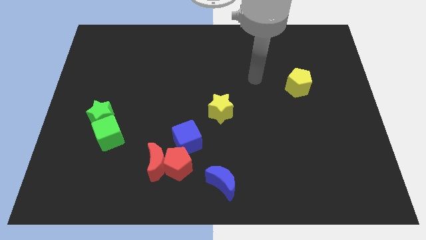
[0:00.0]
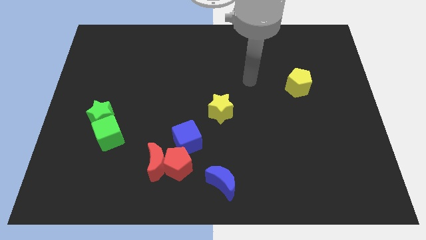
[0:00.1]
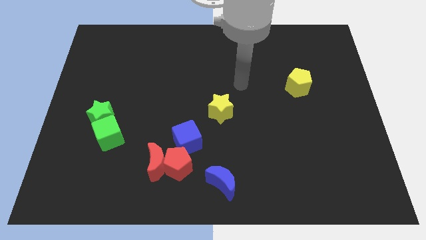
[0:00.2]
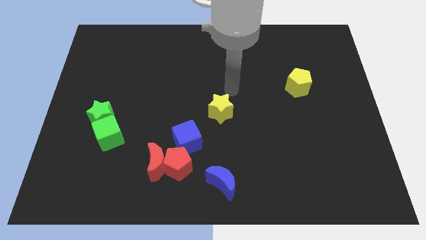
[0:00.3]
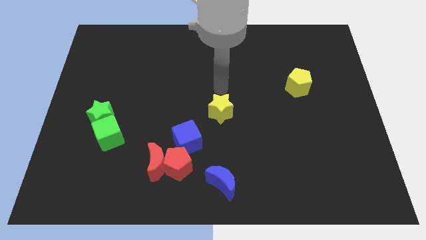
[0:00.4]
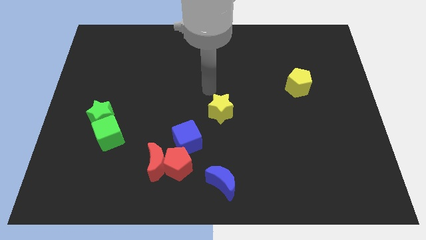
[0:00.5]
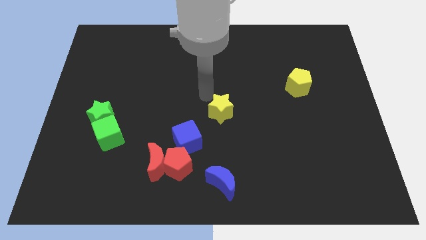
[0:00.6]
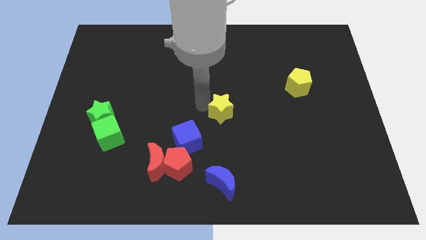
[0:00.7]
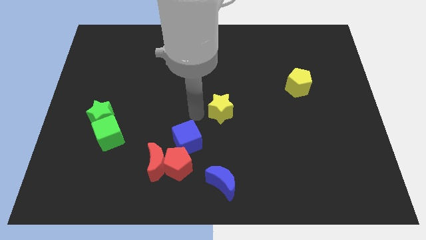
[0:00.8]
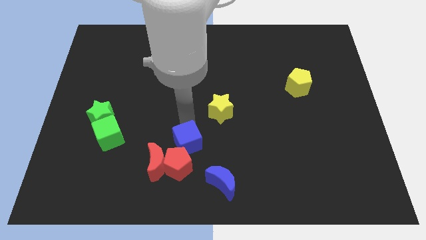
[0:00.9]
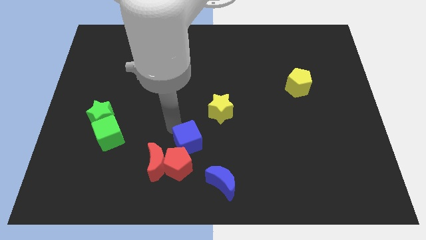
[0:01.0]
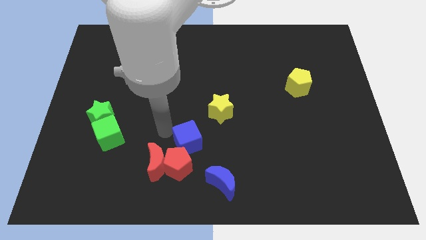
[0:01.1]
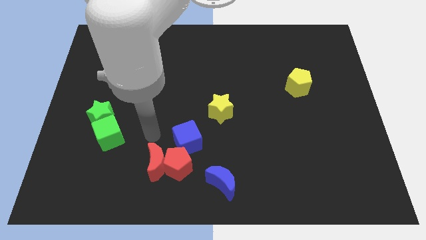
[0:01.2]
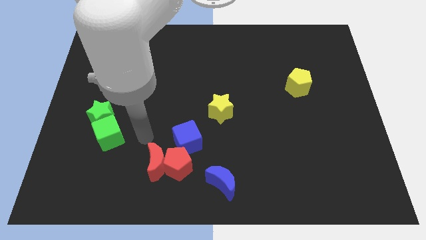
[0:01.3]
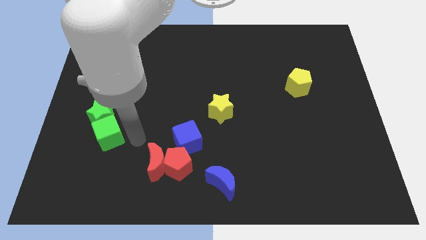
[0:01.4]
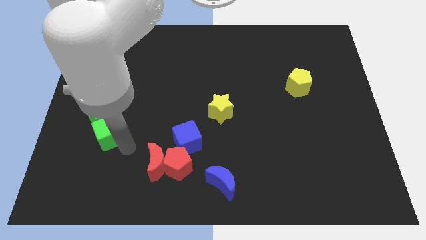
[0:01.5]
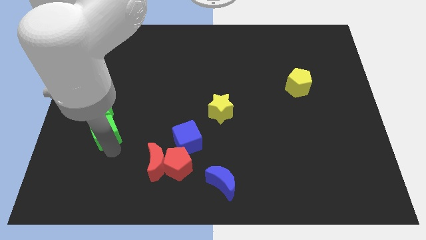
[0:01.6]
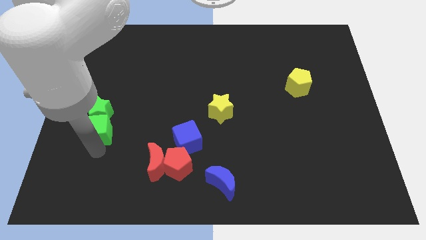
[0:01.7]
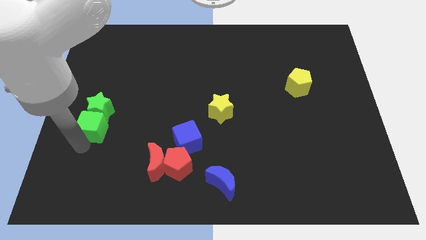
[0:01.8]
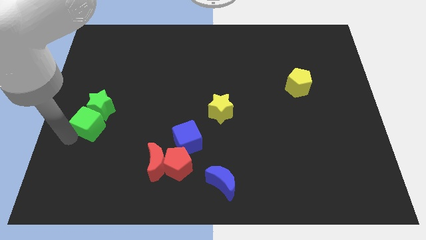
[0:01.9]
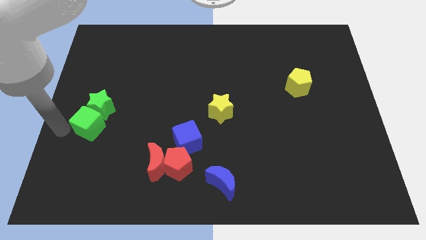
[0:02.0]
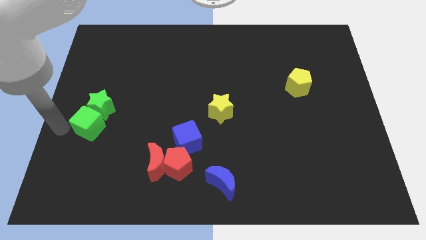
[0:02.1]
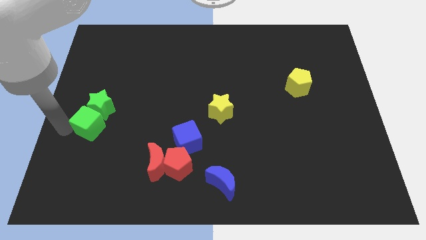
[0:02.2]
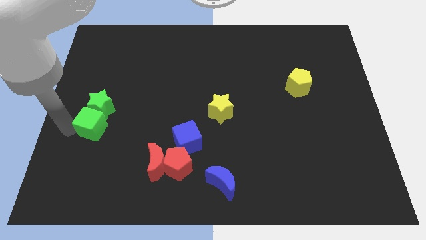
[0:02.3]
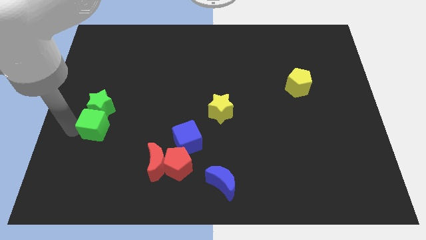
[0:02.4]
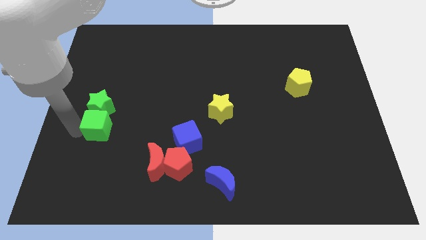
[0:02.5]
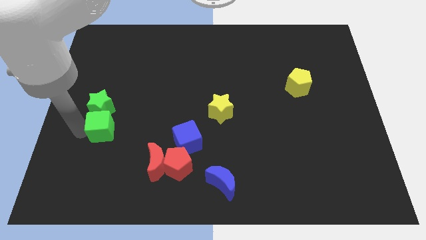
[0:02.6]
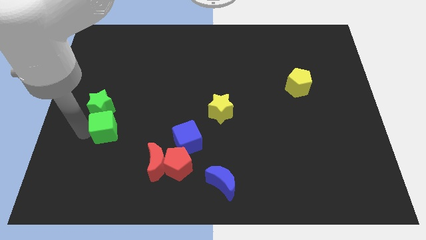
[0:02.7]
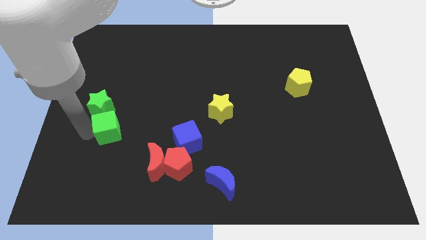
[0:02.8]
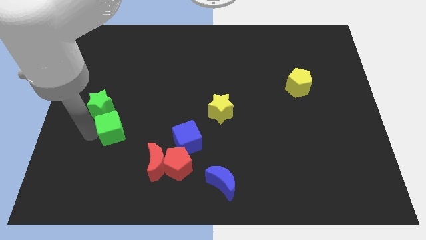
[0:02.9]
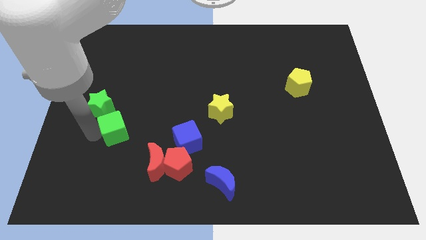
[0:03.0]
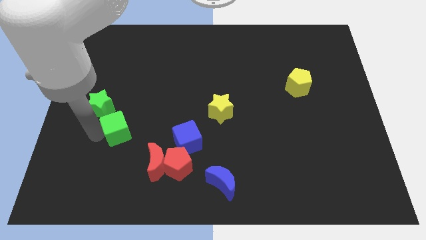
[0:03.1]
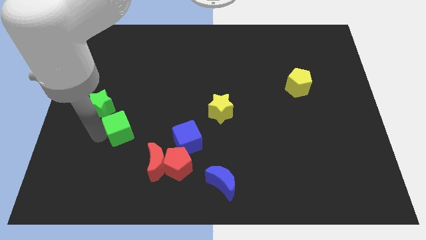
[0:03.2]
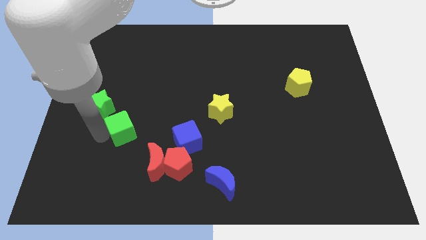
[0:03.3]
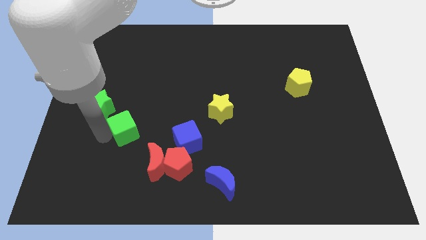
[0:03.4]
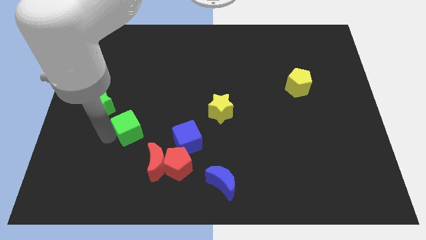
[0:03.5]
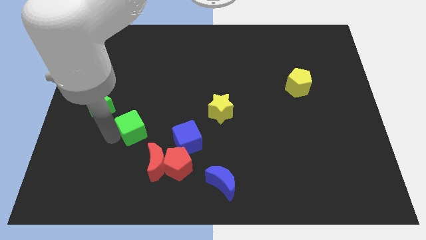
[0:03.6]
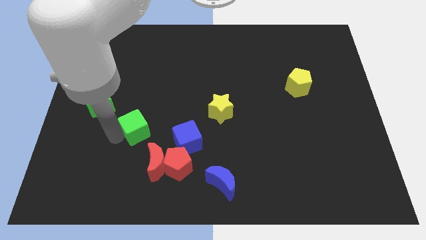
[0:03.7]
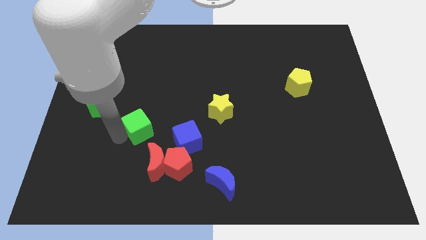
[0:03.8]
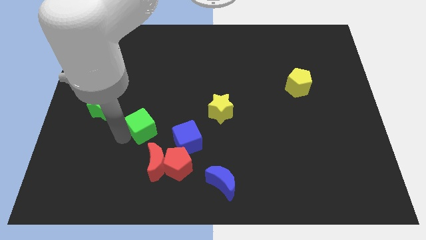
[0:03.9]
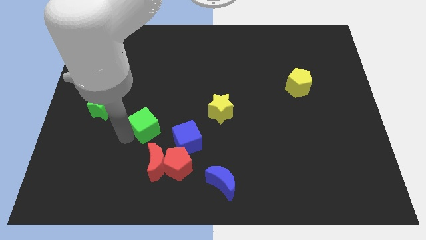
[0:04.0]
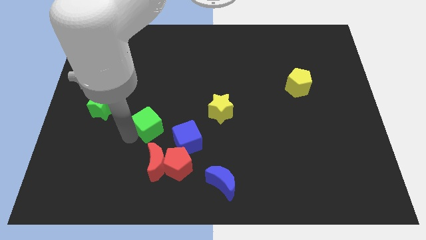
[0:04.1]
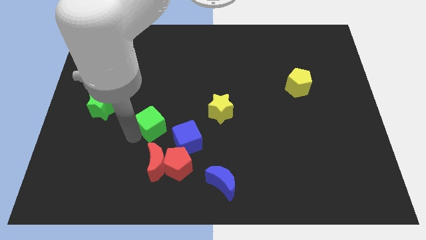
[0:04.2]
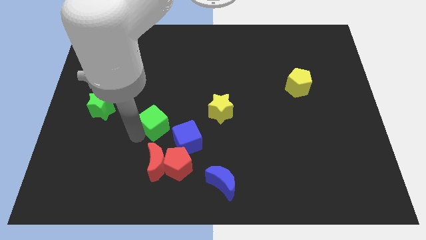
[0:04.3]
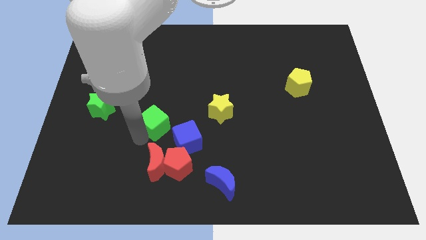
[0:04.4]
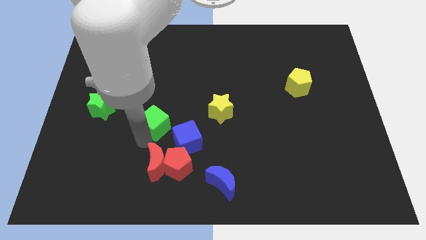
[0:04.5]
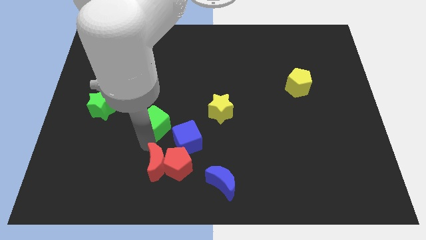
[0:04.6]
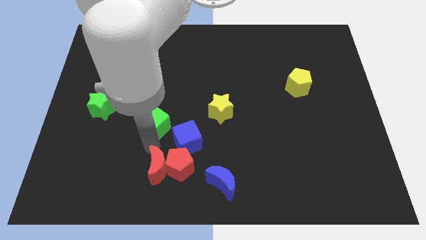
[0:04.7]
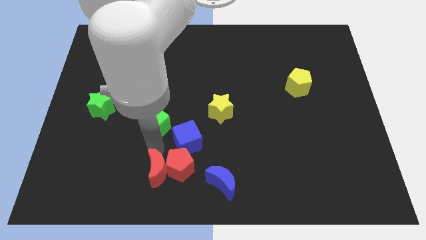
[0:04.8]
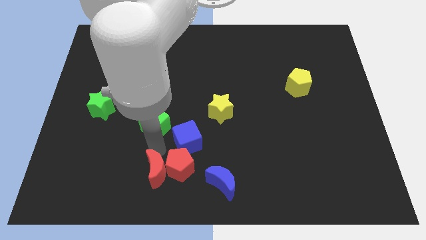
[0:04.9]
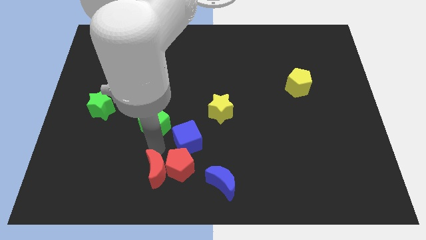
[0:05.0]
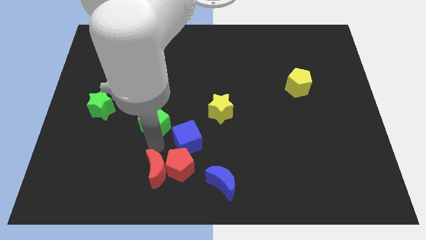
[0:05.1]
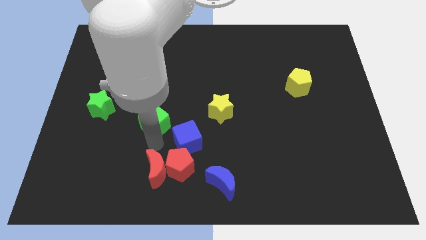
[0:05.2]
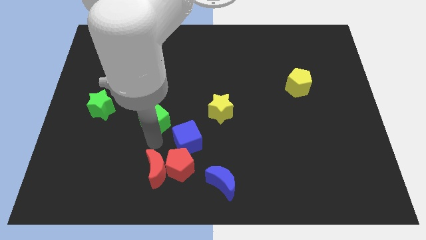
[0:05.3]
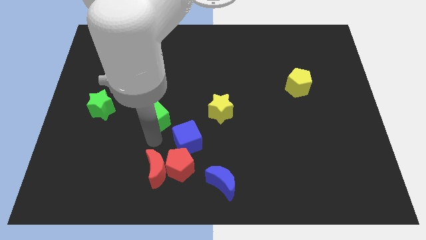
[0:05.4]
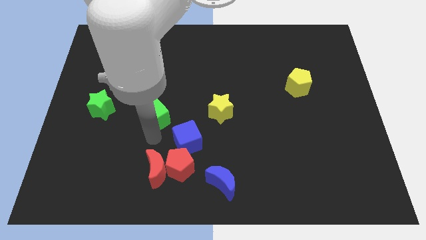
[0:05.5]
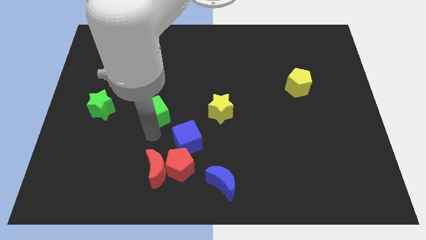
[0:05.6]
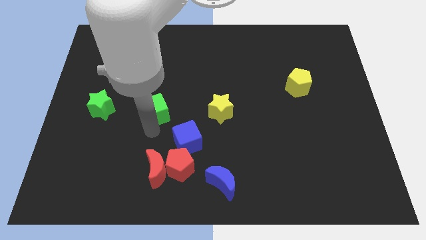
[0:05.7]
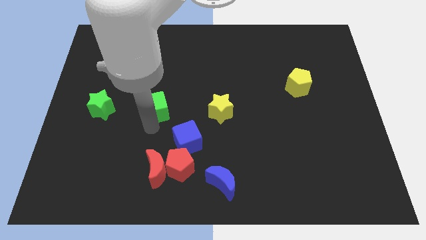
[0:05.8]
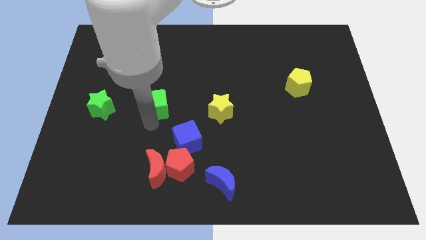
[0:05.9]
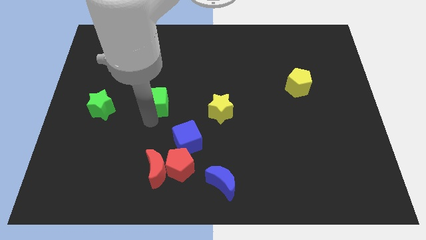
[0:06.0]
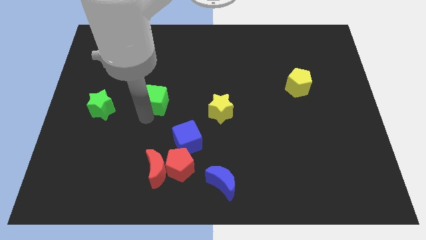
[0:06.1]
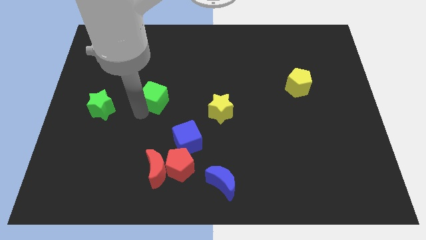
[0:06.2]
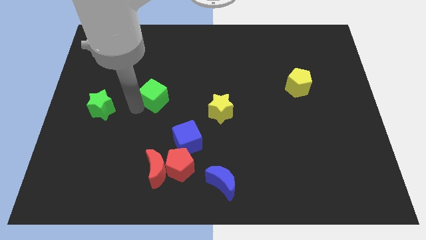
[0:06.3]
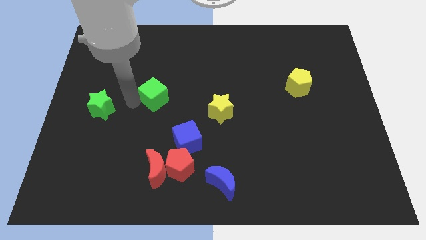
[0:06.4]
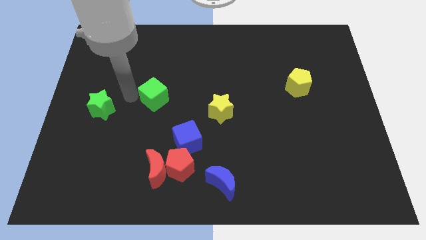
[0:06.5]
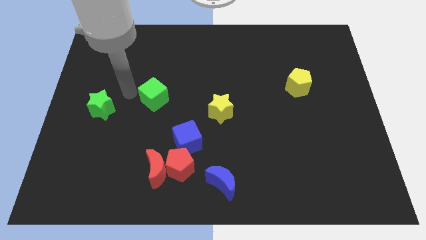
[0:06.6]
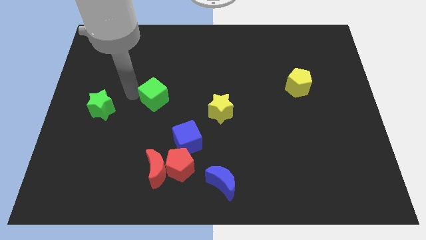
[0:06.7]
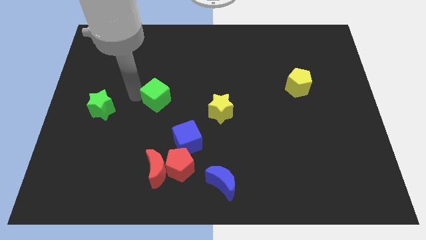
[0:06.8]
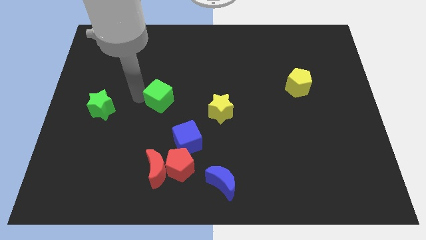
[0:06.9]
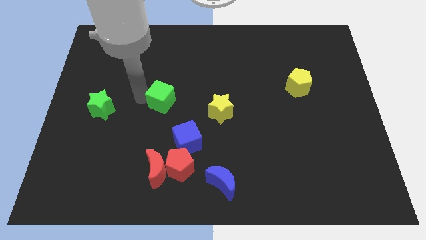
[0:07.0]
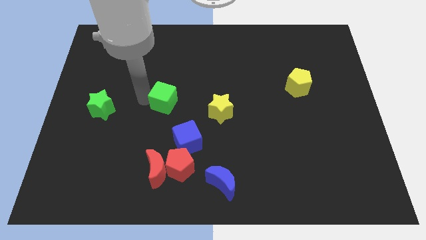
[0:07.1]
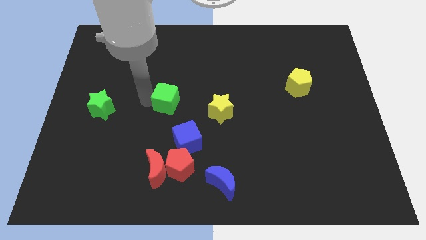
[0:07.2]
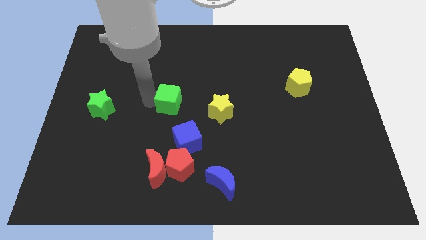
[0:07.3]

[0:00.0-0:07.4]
put the green cube to the top of the blue cube
